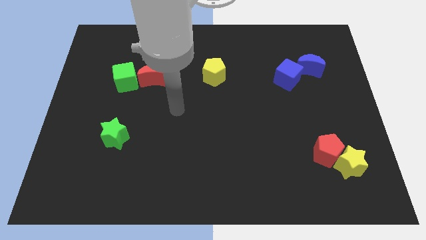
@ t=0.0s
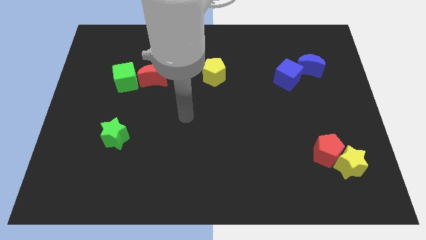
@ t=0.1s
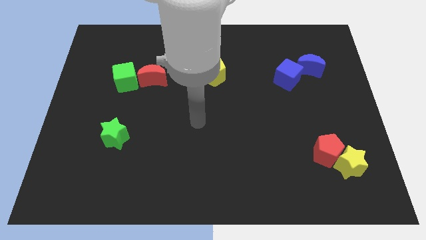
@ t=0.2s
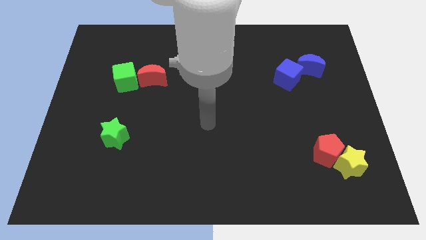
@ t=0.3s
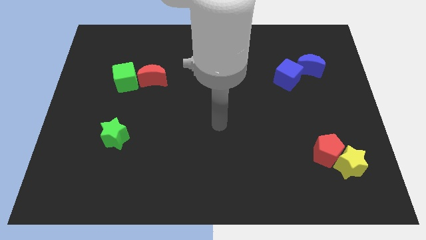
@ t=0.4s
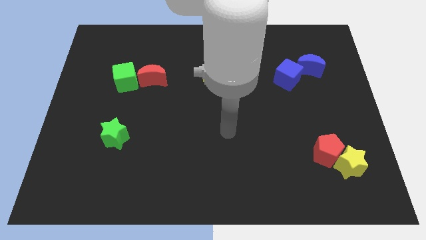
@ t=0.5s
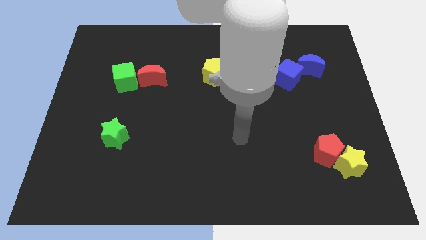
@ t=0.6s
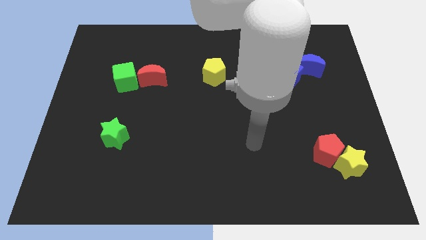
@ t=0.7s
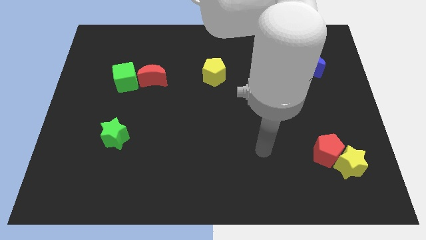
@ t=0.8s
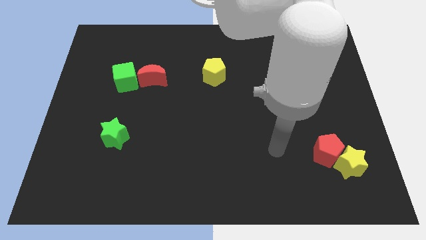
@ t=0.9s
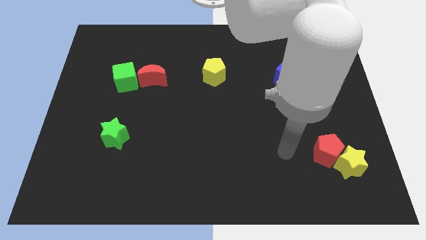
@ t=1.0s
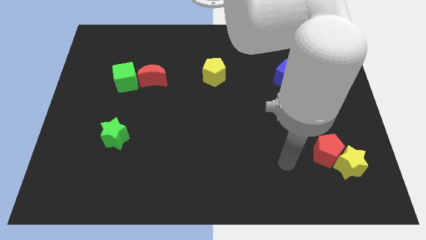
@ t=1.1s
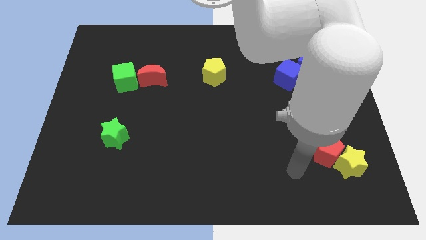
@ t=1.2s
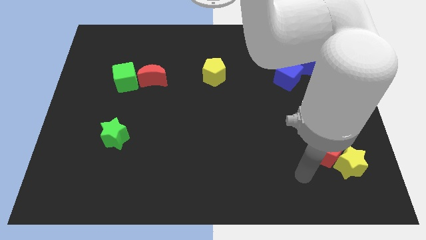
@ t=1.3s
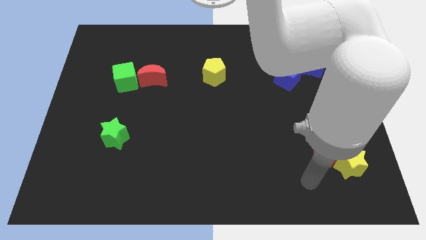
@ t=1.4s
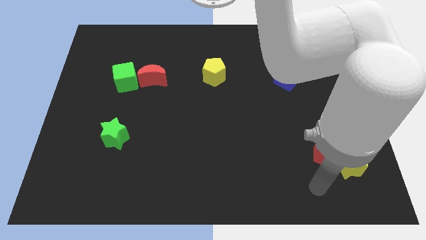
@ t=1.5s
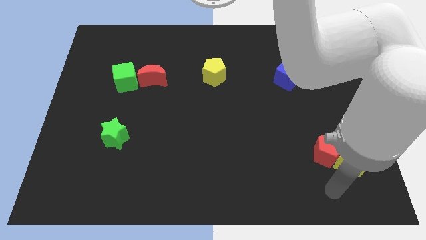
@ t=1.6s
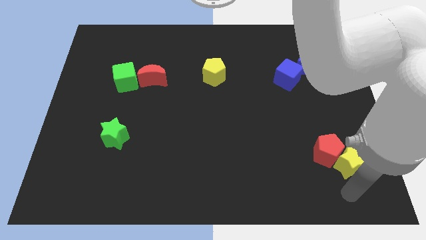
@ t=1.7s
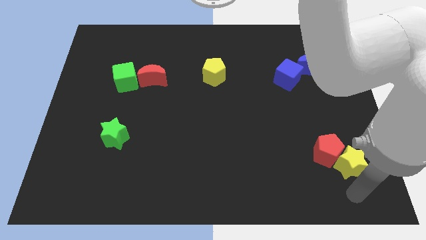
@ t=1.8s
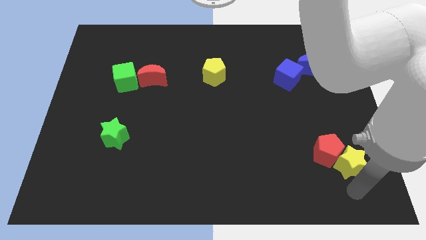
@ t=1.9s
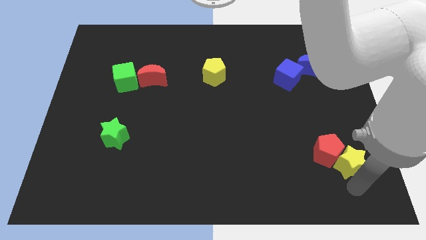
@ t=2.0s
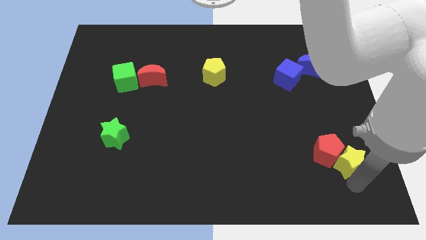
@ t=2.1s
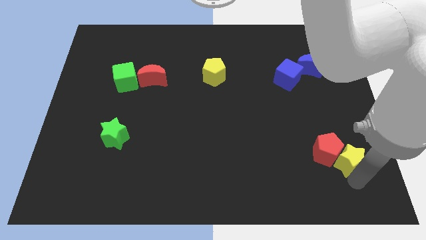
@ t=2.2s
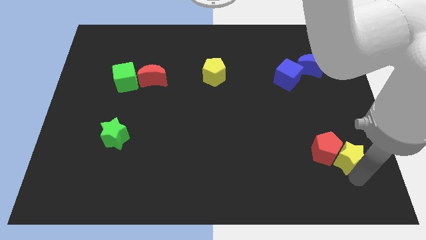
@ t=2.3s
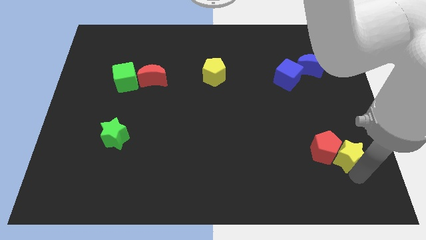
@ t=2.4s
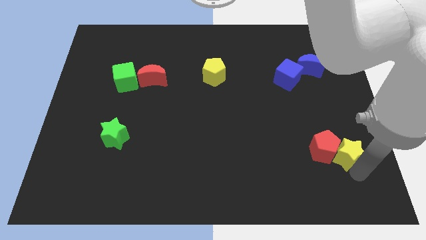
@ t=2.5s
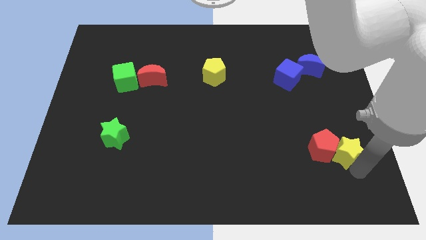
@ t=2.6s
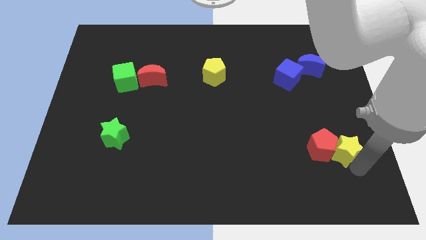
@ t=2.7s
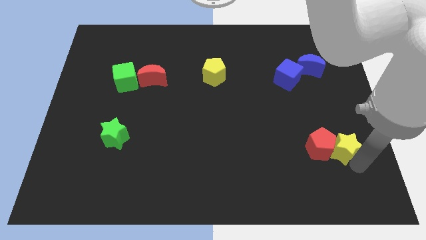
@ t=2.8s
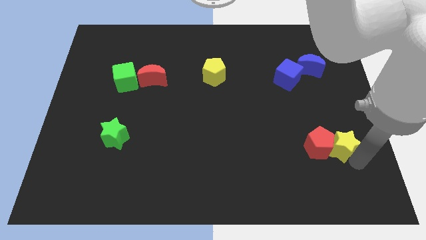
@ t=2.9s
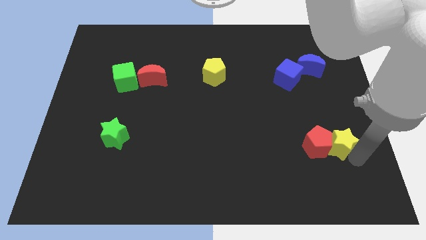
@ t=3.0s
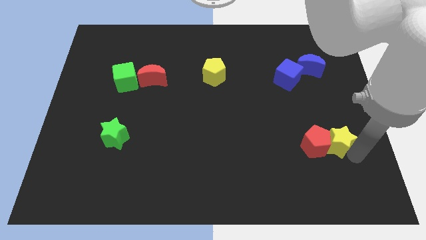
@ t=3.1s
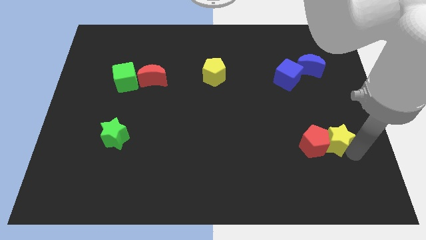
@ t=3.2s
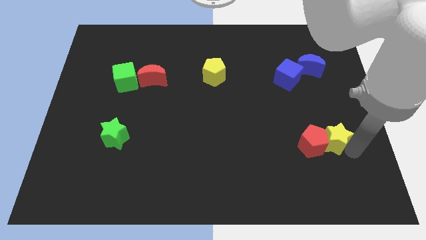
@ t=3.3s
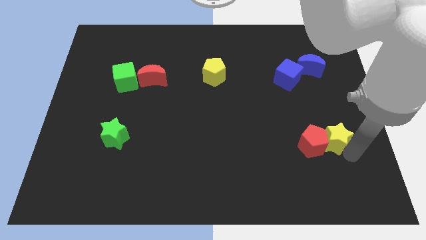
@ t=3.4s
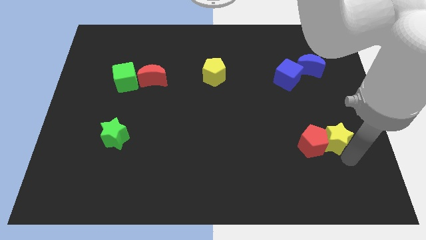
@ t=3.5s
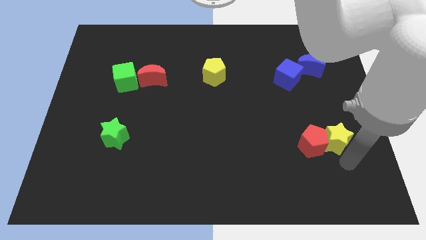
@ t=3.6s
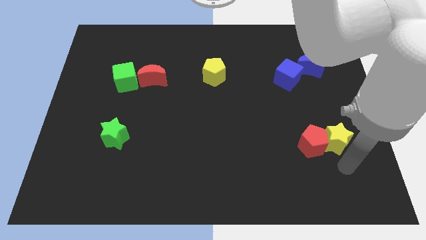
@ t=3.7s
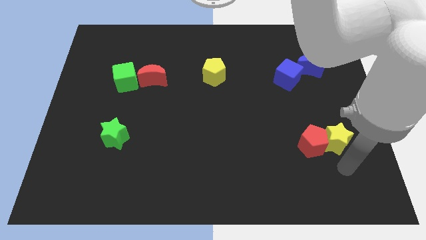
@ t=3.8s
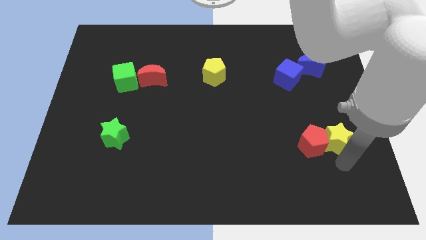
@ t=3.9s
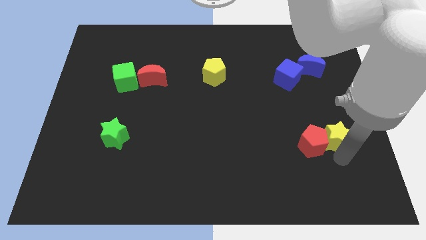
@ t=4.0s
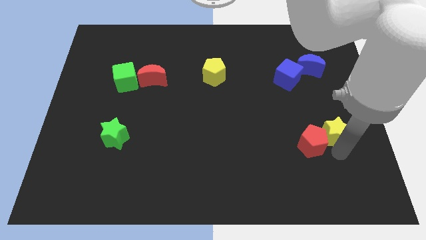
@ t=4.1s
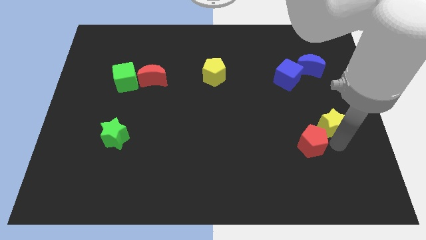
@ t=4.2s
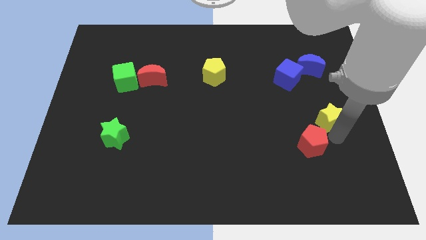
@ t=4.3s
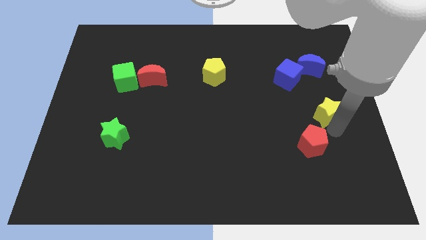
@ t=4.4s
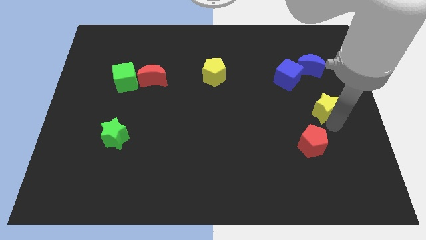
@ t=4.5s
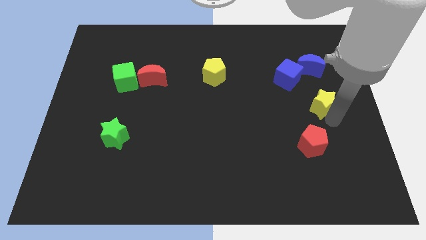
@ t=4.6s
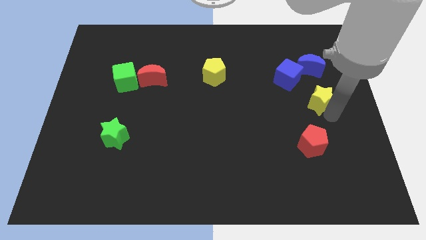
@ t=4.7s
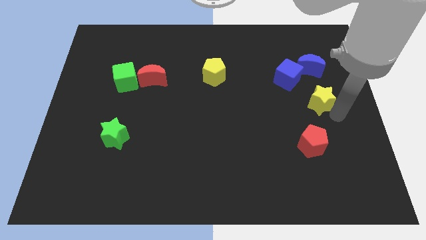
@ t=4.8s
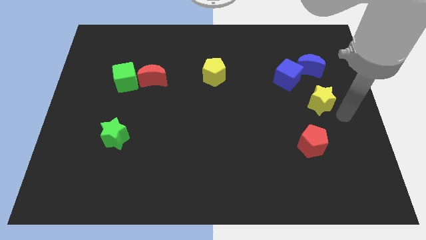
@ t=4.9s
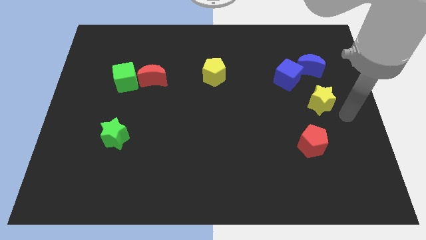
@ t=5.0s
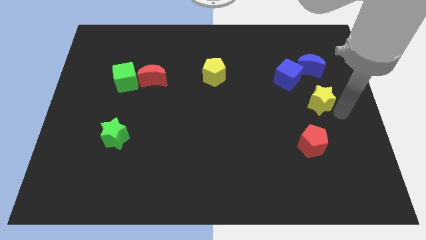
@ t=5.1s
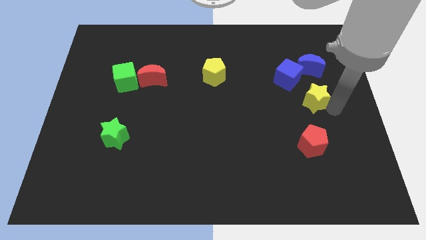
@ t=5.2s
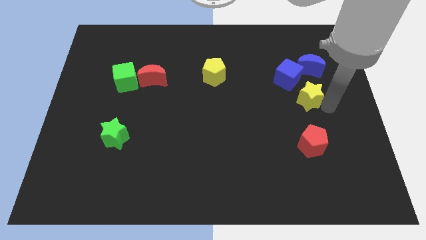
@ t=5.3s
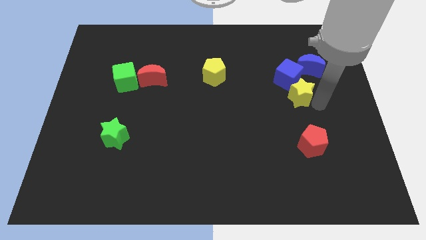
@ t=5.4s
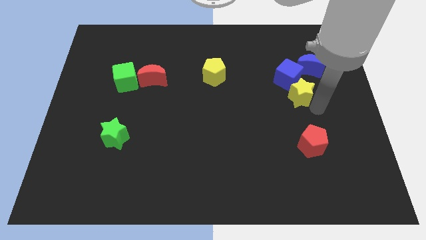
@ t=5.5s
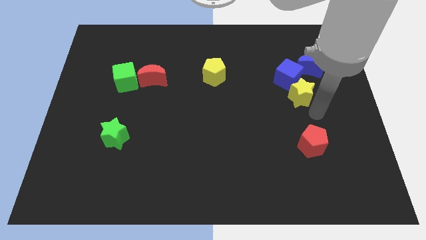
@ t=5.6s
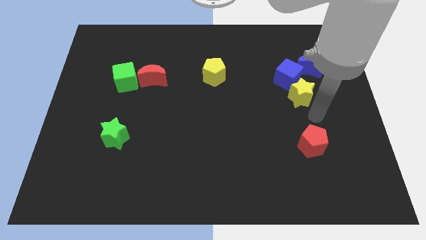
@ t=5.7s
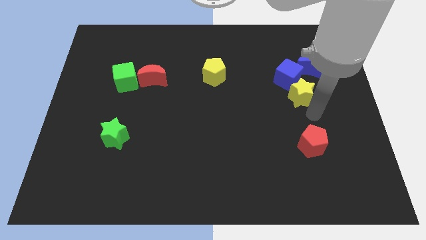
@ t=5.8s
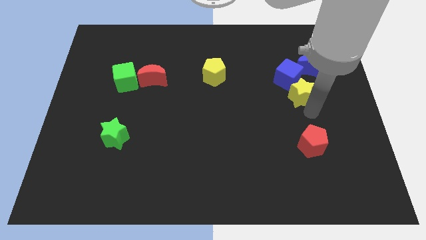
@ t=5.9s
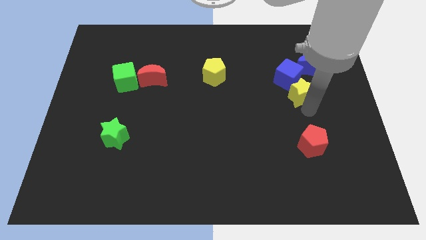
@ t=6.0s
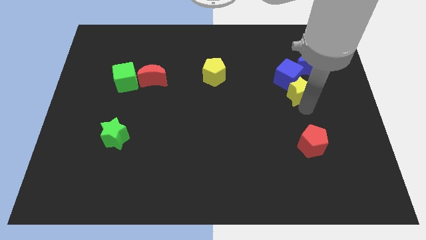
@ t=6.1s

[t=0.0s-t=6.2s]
move the yellow star next to the blue cube
